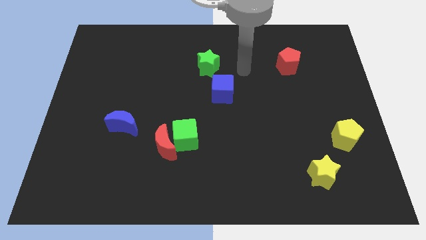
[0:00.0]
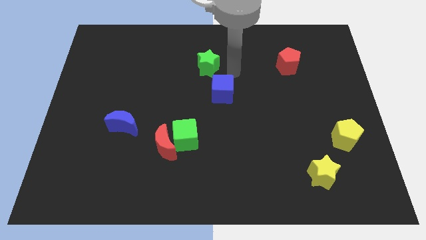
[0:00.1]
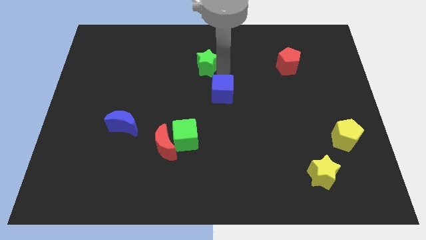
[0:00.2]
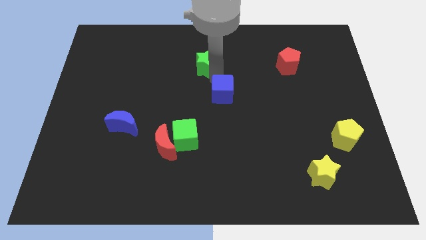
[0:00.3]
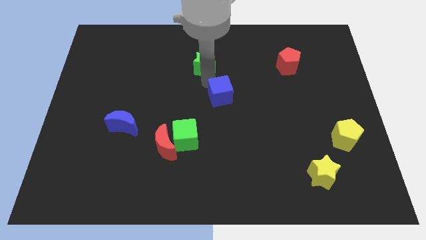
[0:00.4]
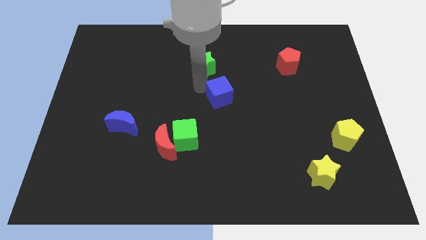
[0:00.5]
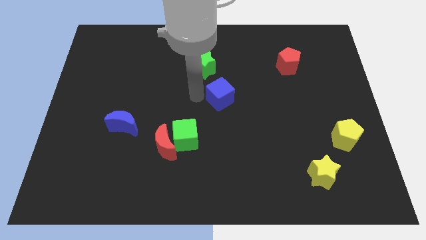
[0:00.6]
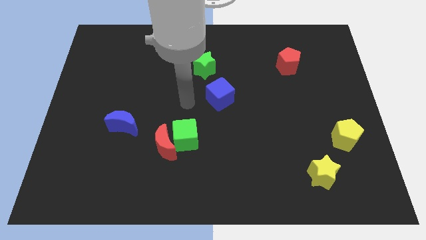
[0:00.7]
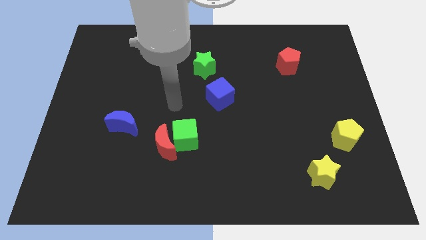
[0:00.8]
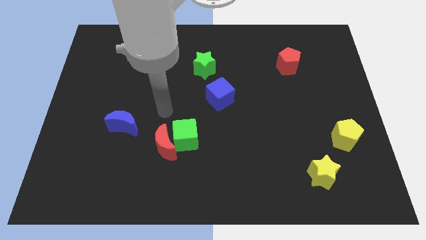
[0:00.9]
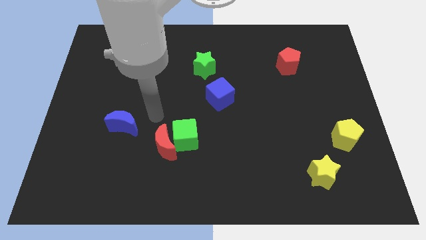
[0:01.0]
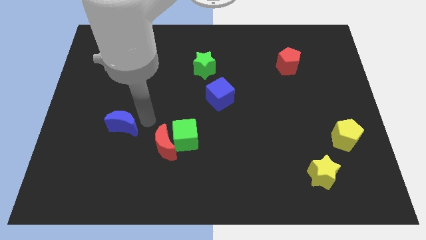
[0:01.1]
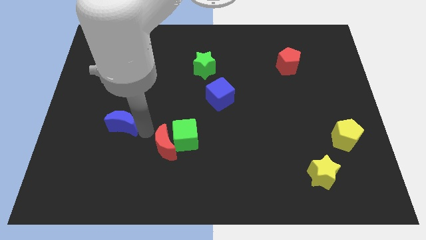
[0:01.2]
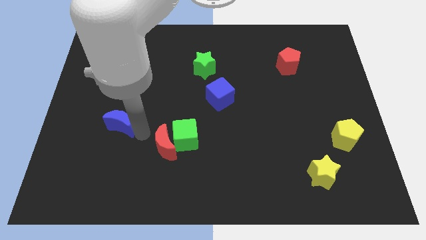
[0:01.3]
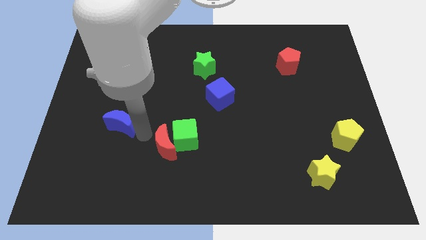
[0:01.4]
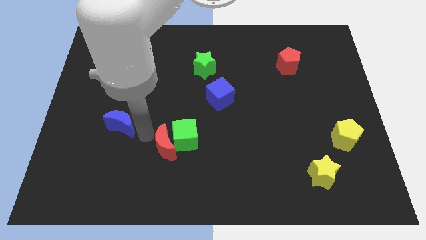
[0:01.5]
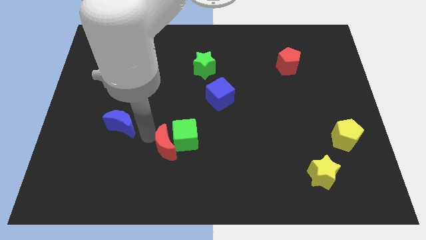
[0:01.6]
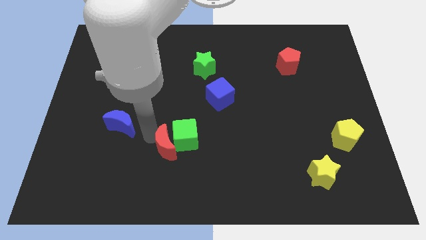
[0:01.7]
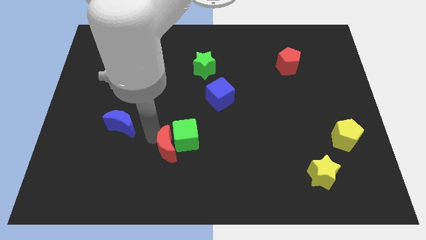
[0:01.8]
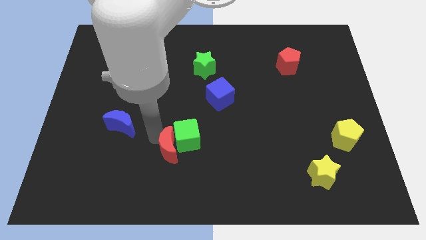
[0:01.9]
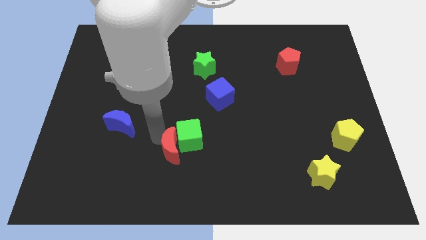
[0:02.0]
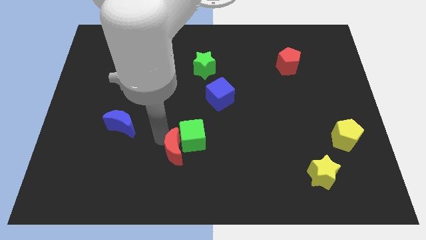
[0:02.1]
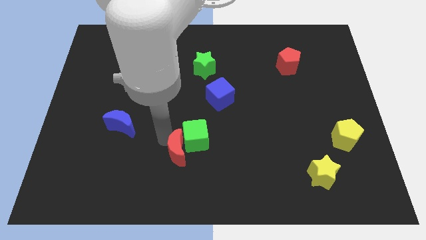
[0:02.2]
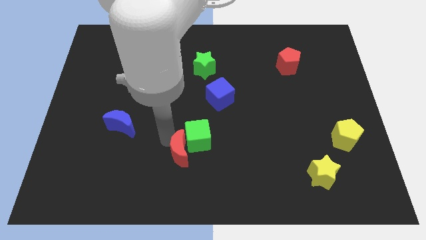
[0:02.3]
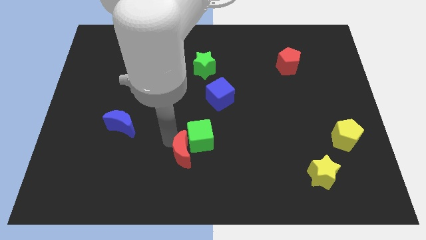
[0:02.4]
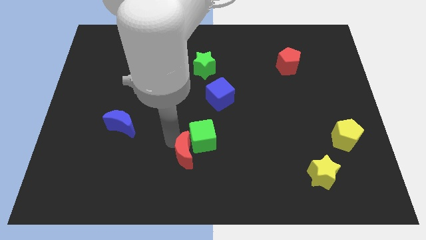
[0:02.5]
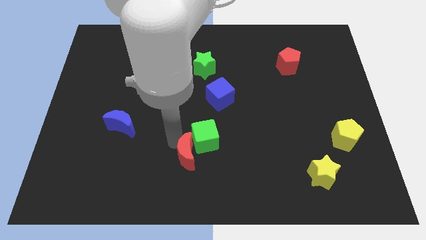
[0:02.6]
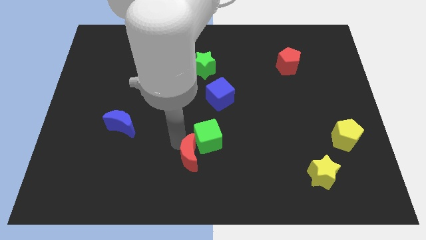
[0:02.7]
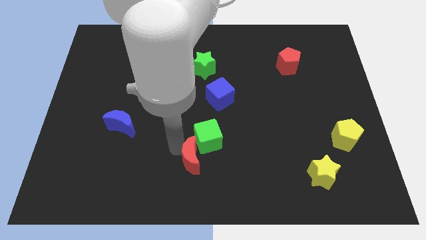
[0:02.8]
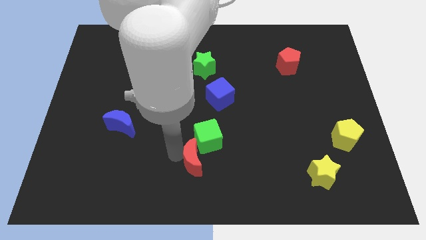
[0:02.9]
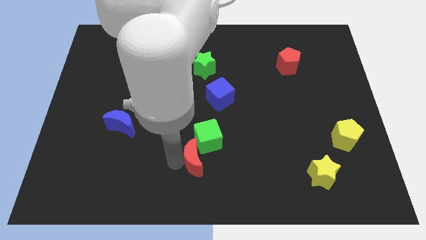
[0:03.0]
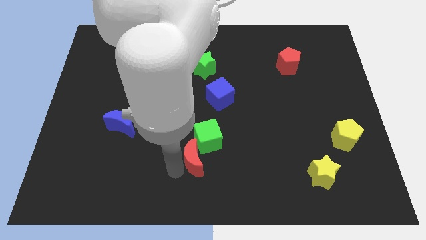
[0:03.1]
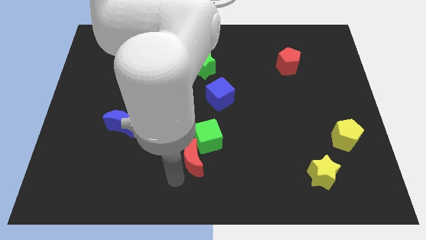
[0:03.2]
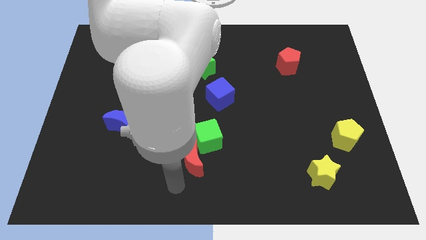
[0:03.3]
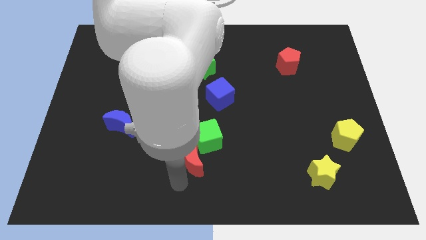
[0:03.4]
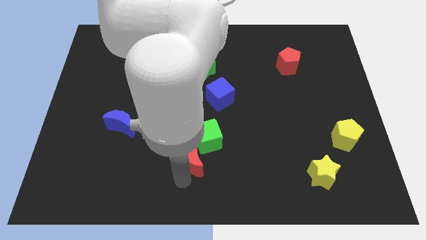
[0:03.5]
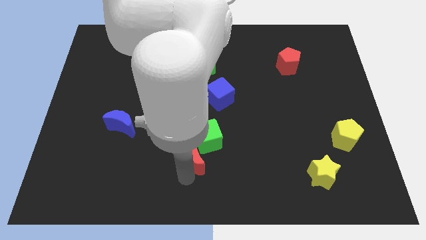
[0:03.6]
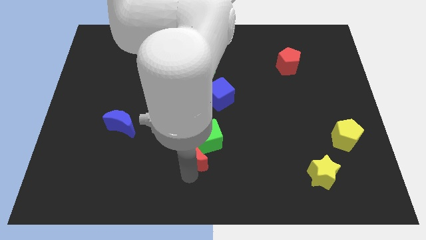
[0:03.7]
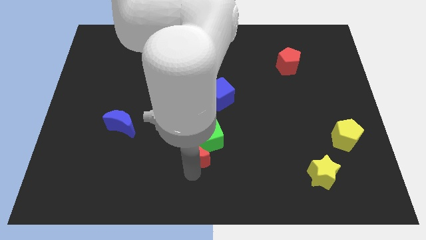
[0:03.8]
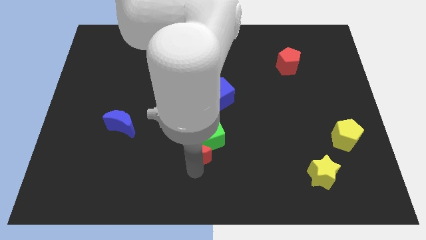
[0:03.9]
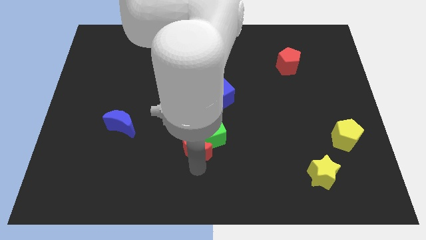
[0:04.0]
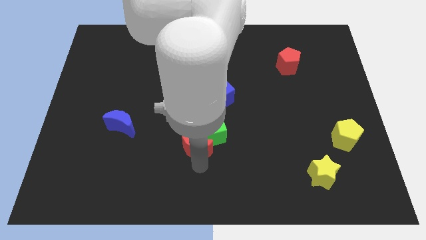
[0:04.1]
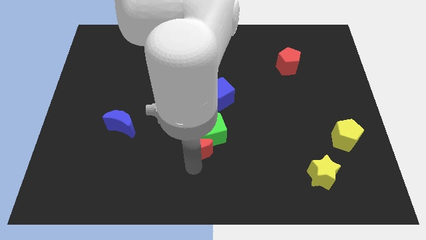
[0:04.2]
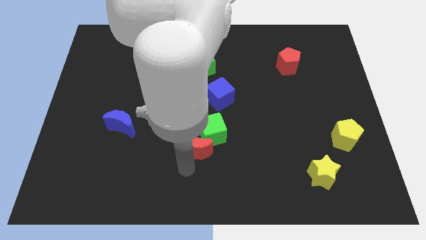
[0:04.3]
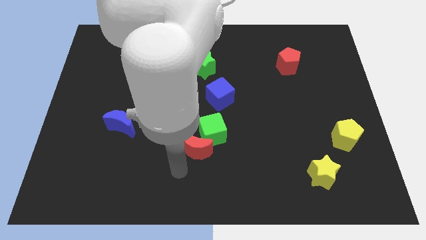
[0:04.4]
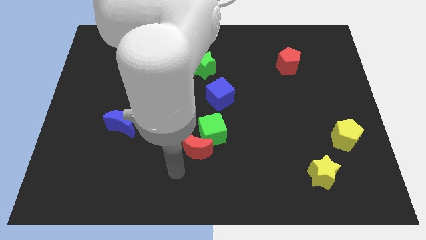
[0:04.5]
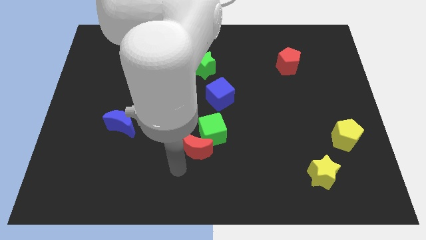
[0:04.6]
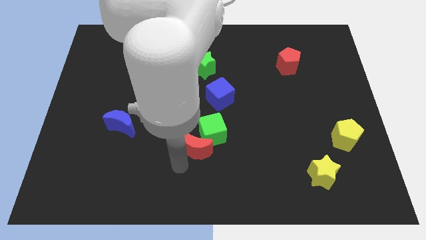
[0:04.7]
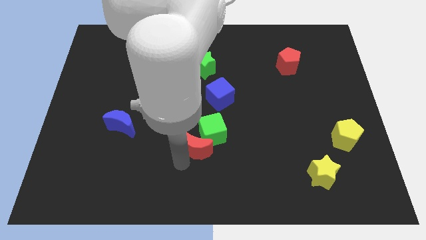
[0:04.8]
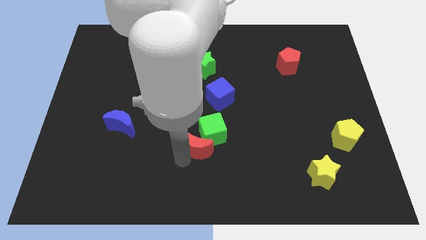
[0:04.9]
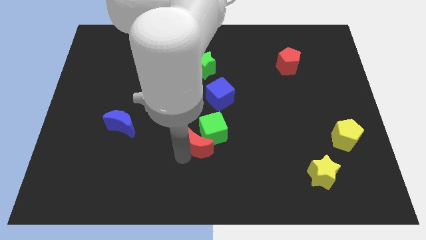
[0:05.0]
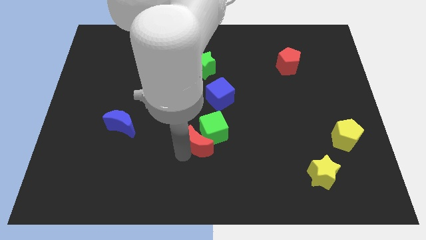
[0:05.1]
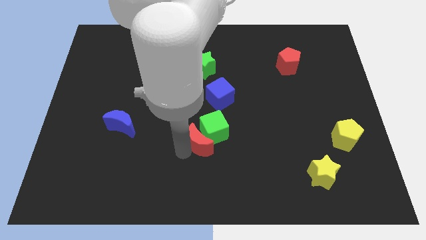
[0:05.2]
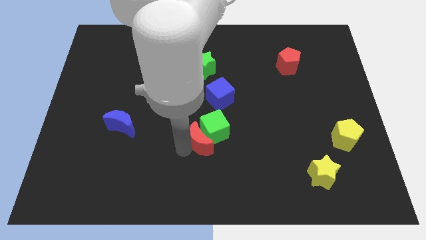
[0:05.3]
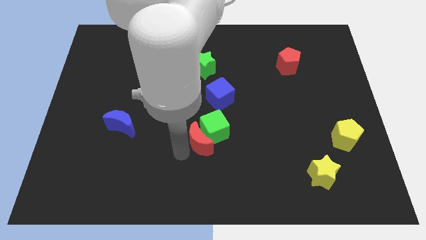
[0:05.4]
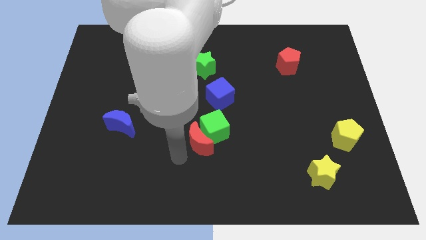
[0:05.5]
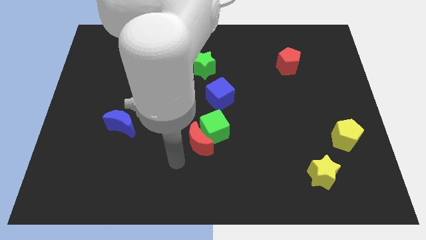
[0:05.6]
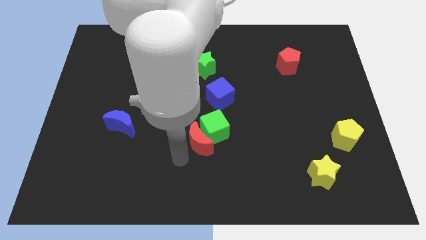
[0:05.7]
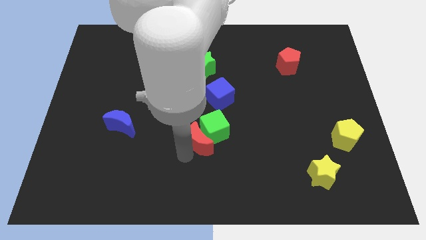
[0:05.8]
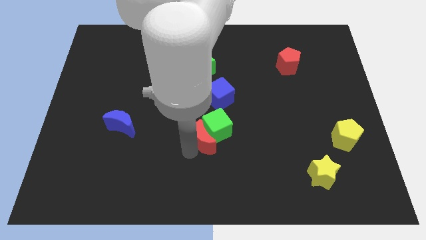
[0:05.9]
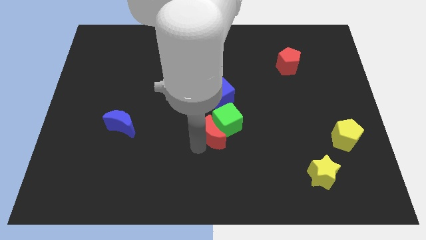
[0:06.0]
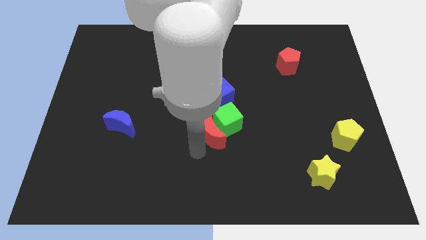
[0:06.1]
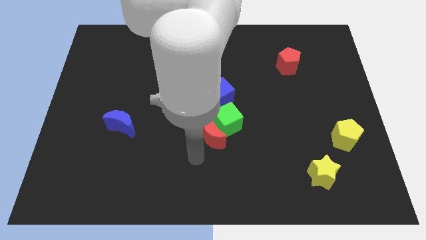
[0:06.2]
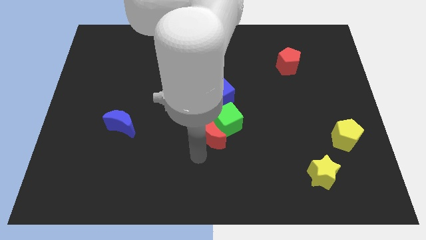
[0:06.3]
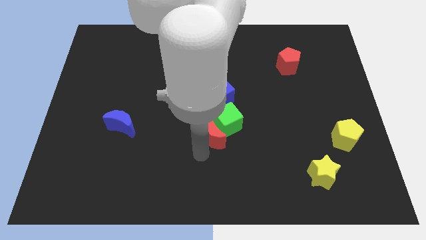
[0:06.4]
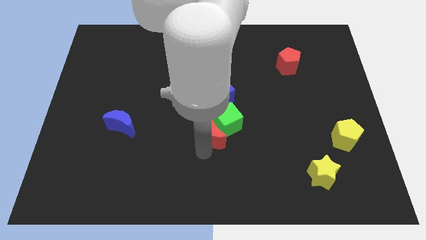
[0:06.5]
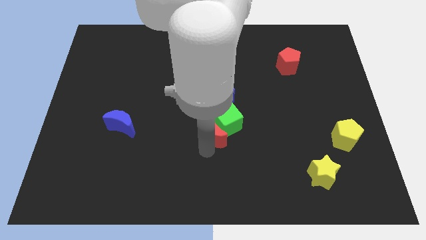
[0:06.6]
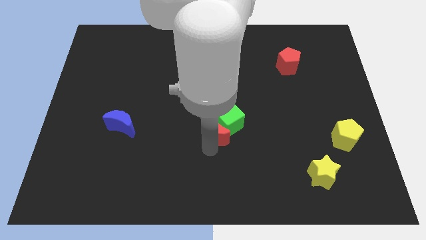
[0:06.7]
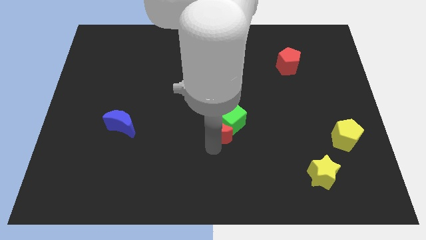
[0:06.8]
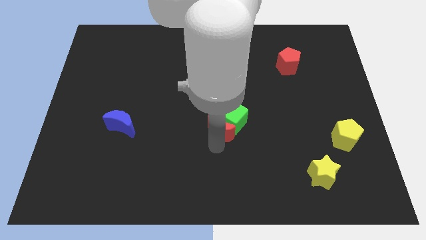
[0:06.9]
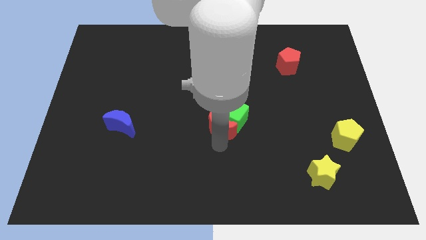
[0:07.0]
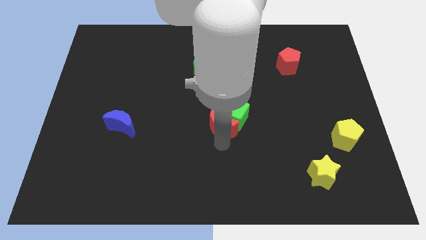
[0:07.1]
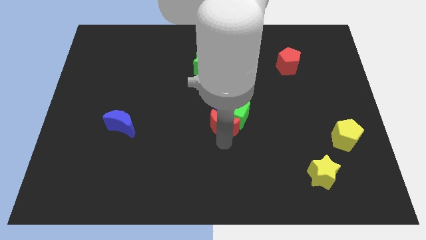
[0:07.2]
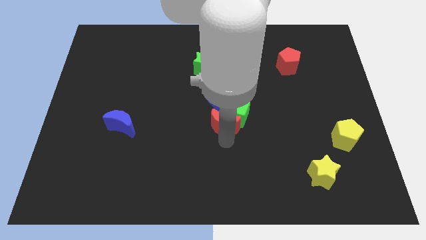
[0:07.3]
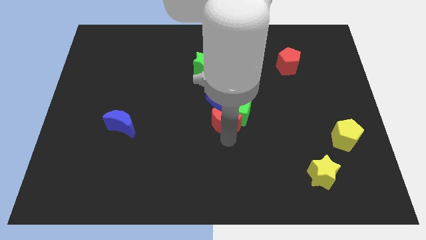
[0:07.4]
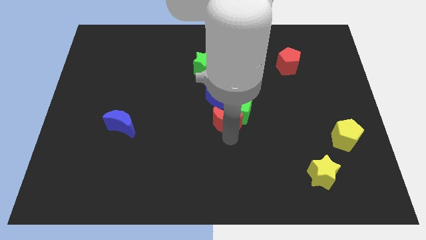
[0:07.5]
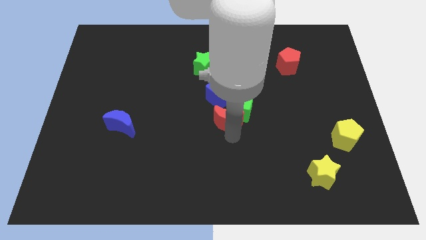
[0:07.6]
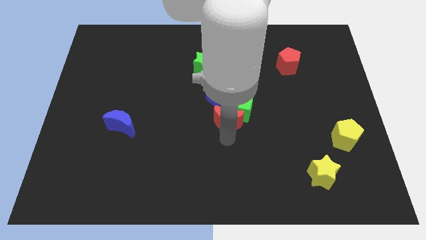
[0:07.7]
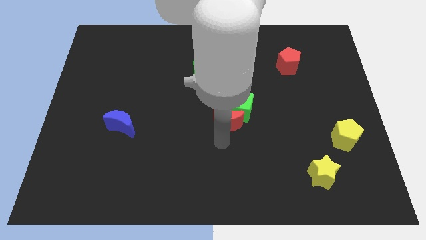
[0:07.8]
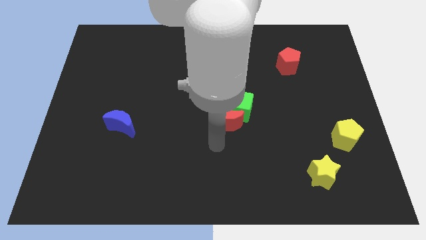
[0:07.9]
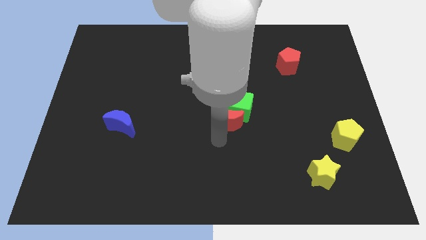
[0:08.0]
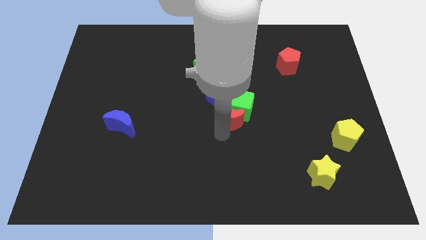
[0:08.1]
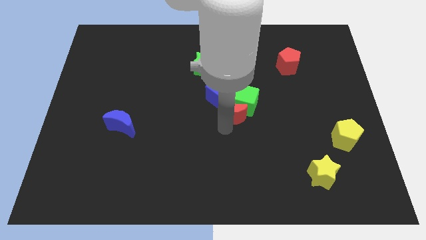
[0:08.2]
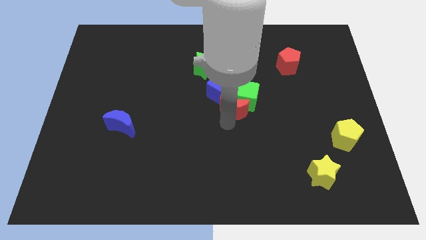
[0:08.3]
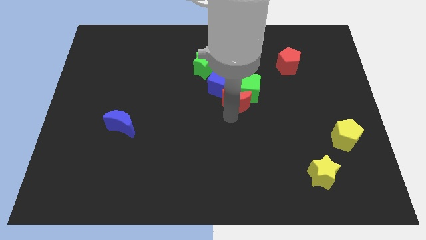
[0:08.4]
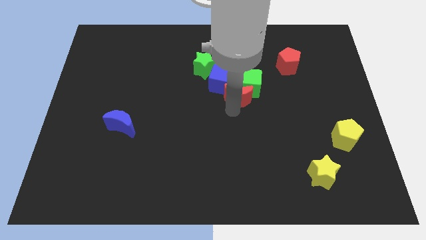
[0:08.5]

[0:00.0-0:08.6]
slide the red moon diagonally upwards and to the right
